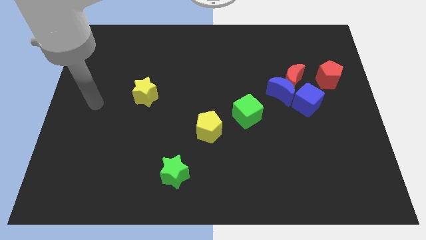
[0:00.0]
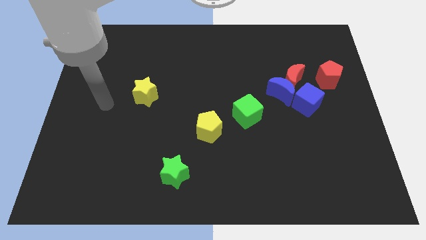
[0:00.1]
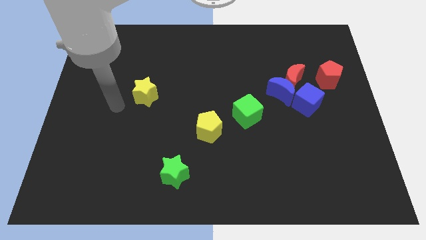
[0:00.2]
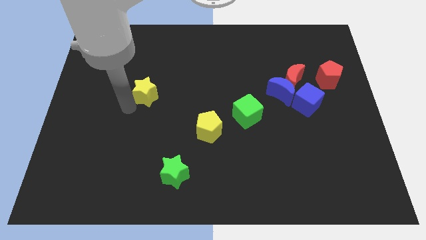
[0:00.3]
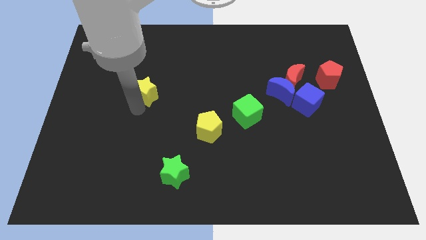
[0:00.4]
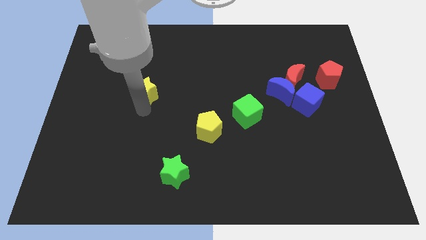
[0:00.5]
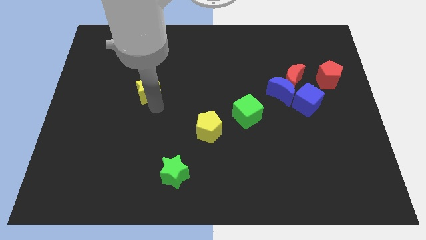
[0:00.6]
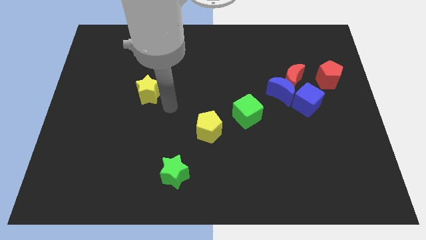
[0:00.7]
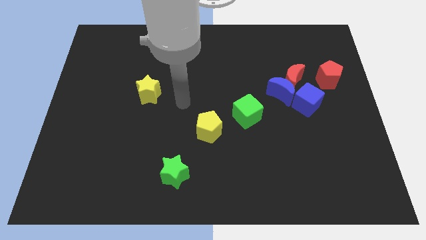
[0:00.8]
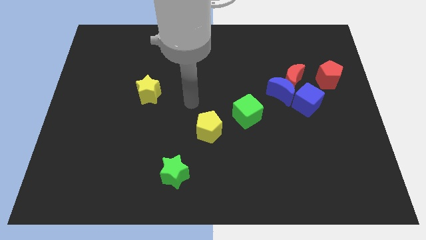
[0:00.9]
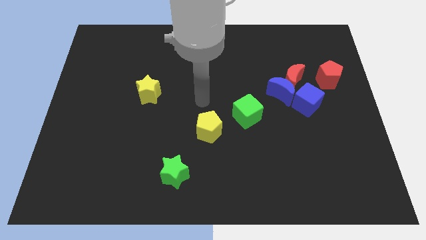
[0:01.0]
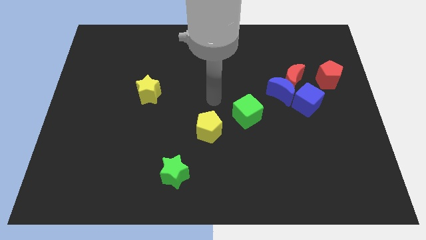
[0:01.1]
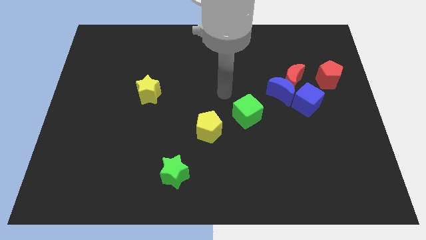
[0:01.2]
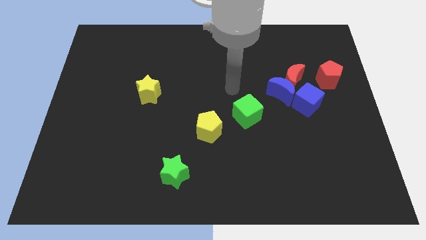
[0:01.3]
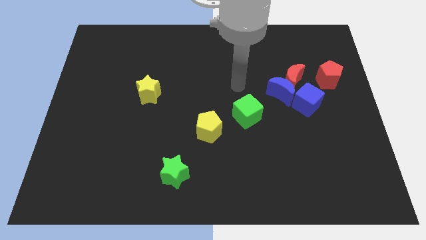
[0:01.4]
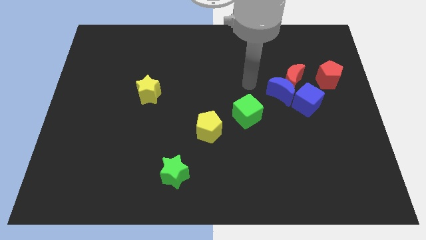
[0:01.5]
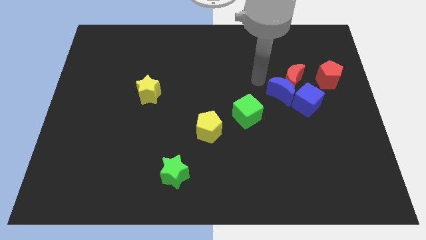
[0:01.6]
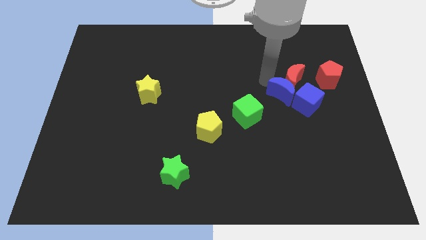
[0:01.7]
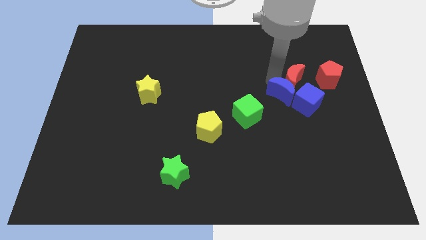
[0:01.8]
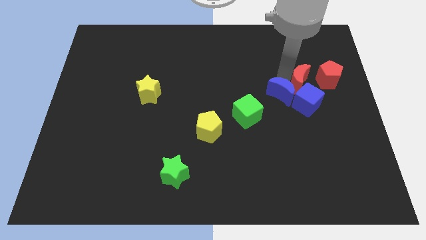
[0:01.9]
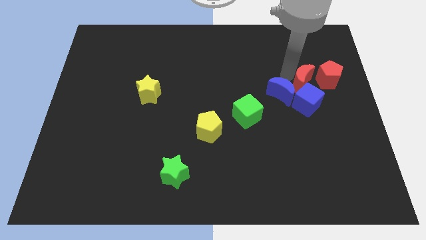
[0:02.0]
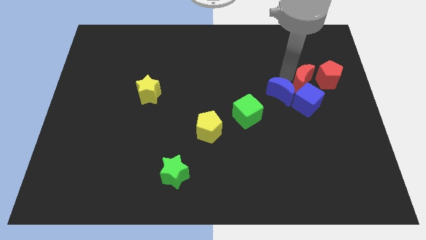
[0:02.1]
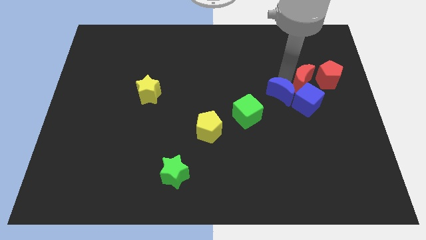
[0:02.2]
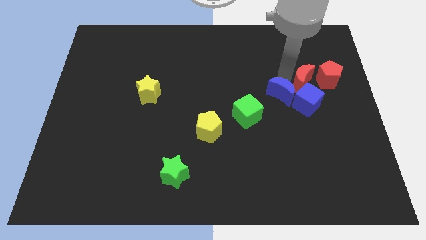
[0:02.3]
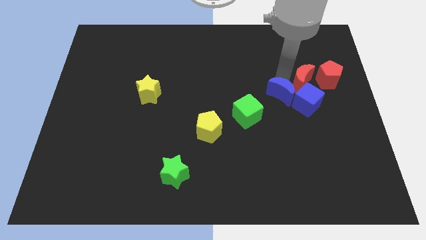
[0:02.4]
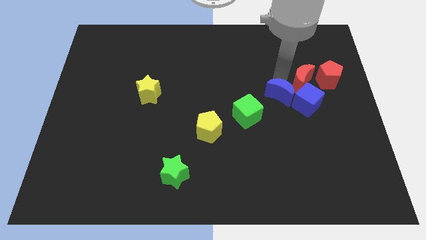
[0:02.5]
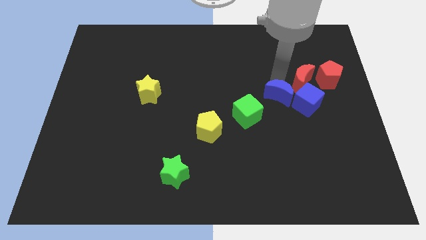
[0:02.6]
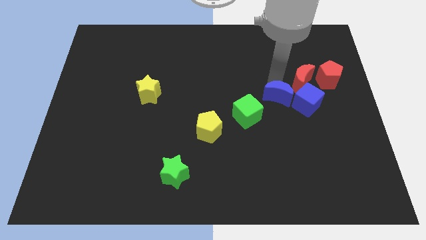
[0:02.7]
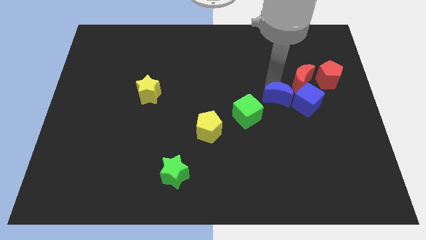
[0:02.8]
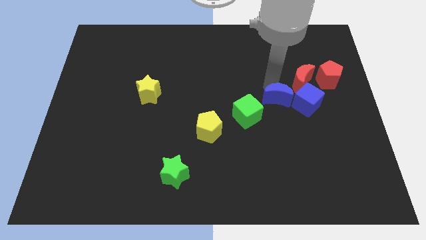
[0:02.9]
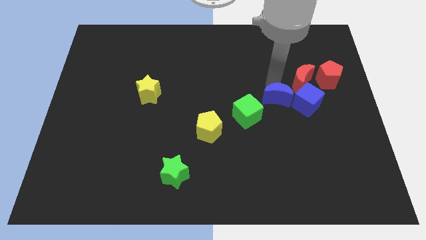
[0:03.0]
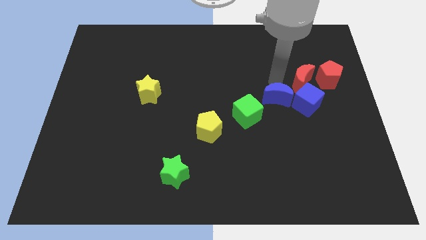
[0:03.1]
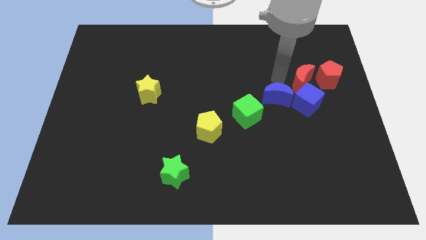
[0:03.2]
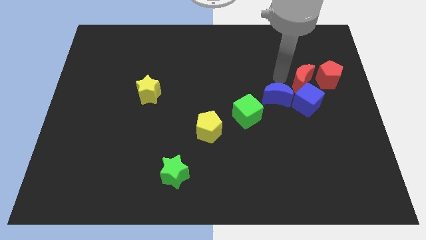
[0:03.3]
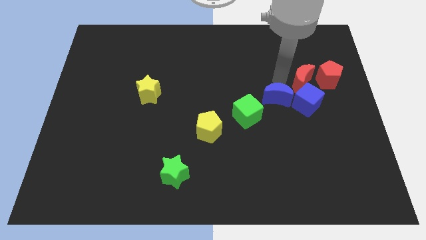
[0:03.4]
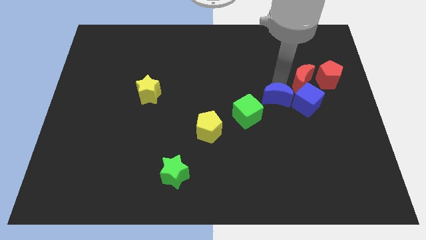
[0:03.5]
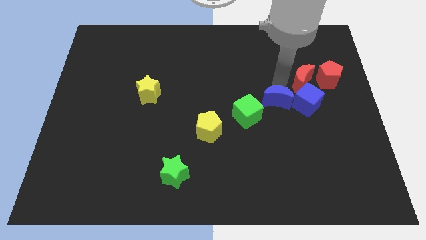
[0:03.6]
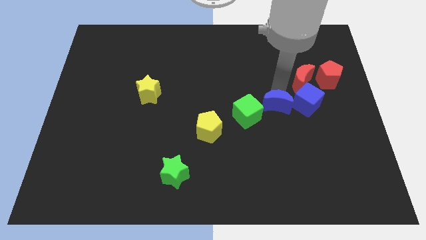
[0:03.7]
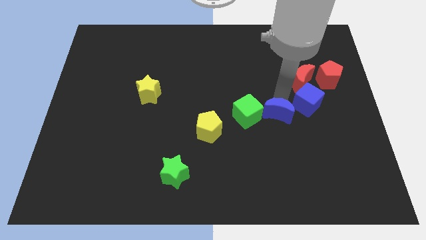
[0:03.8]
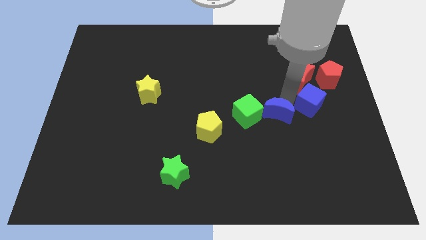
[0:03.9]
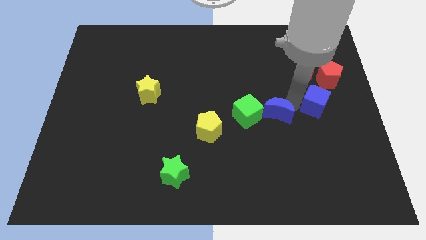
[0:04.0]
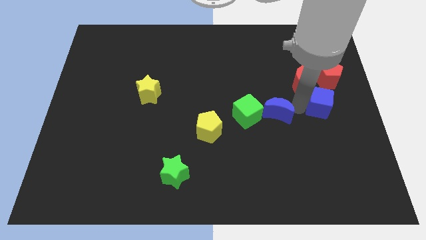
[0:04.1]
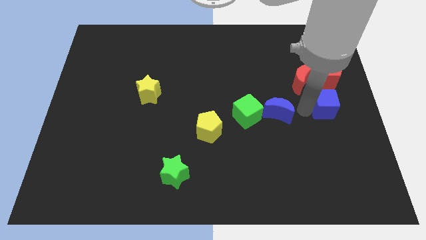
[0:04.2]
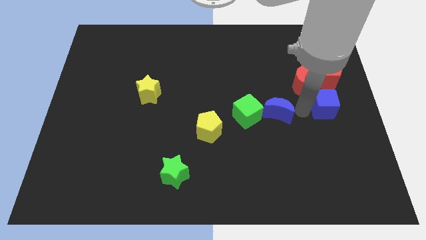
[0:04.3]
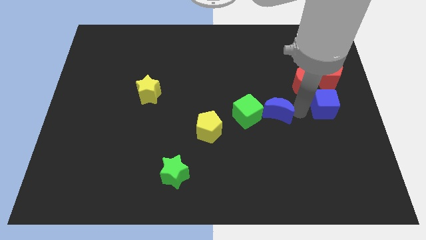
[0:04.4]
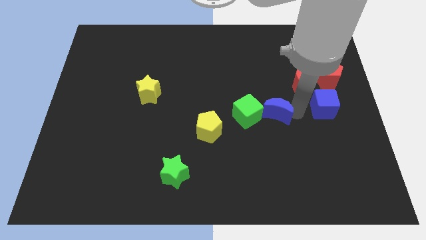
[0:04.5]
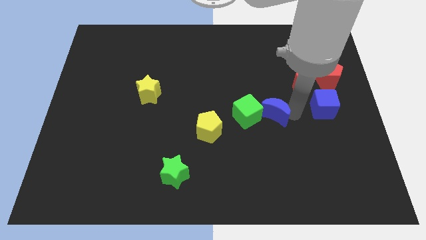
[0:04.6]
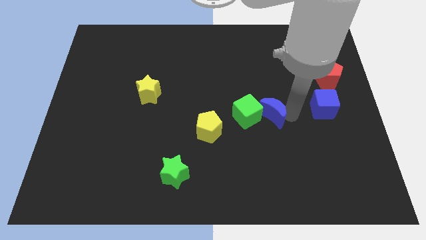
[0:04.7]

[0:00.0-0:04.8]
push the blue moon close to the green cube

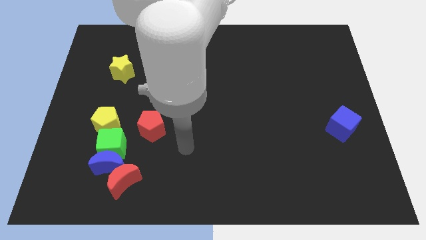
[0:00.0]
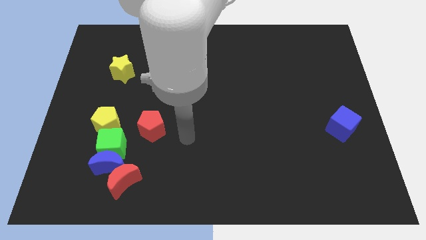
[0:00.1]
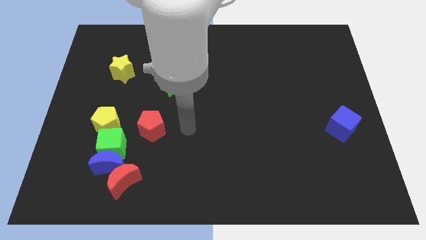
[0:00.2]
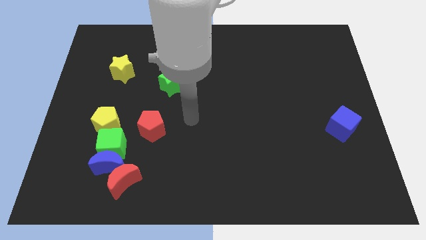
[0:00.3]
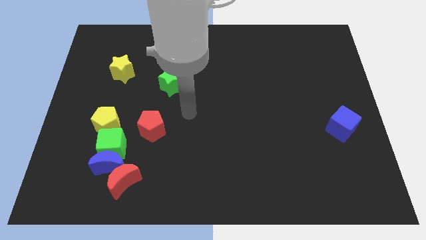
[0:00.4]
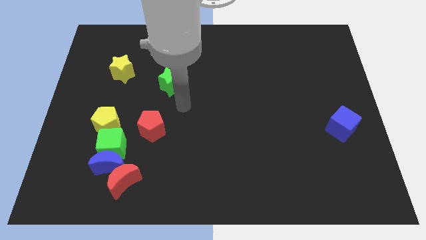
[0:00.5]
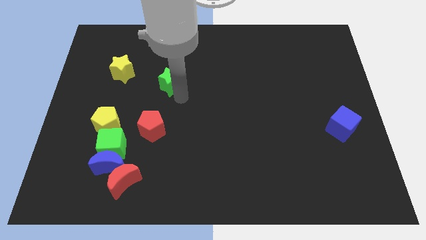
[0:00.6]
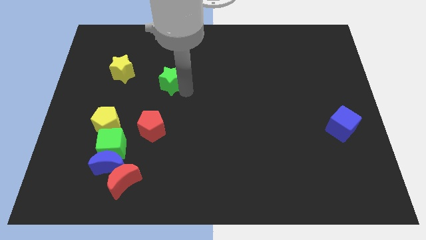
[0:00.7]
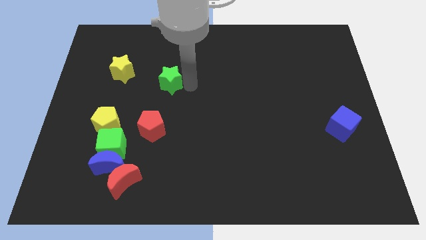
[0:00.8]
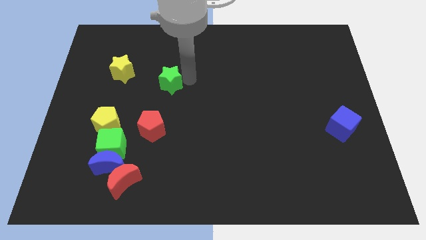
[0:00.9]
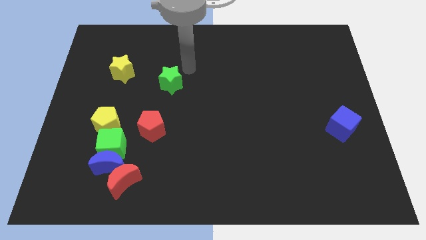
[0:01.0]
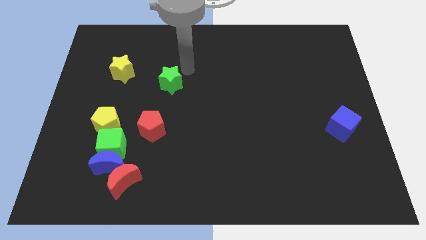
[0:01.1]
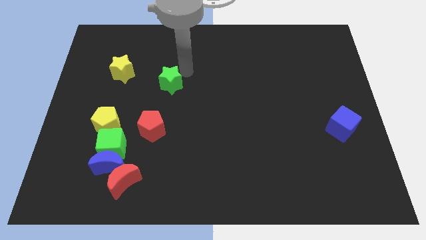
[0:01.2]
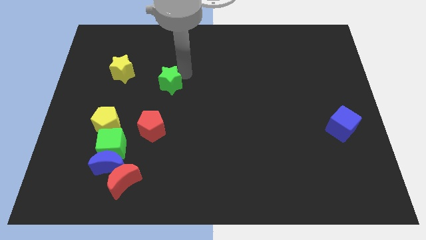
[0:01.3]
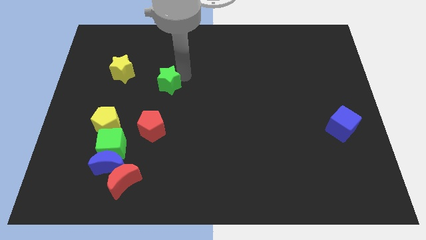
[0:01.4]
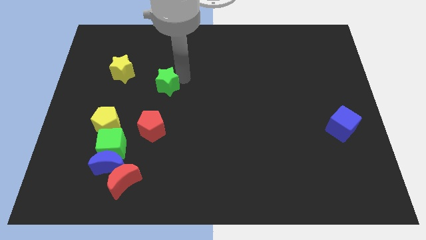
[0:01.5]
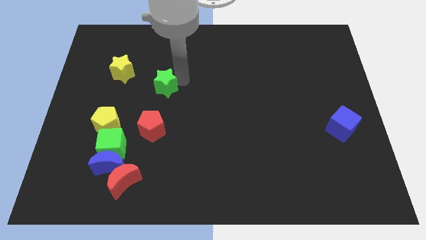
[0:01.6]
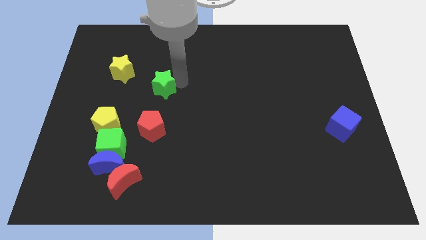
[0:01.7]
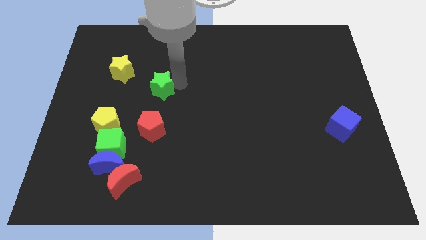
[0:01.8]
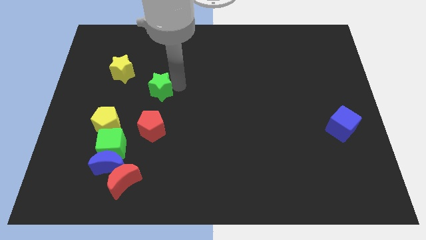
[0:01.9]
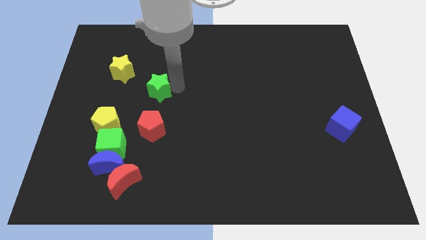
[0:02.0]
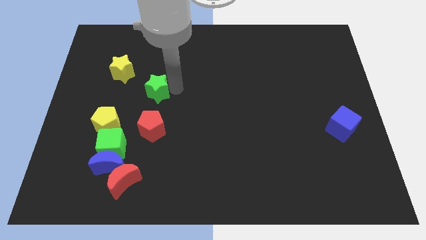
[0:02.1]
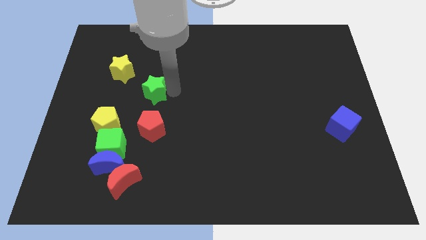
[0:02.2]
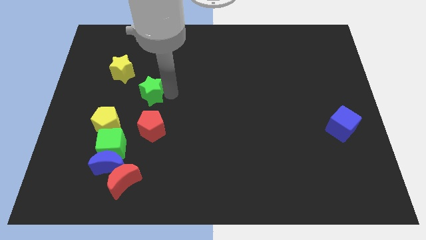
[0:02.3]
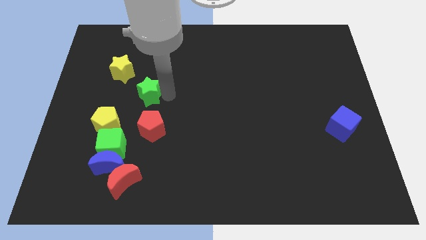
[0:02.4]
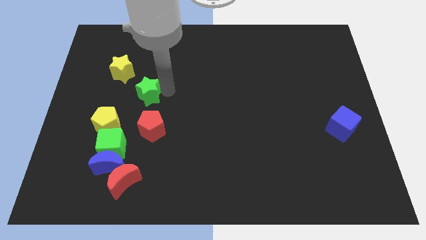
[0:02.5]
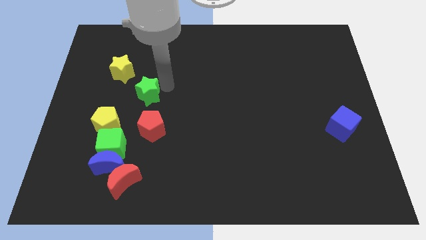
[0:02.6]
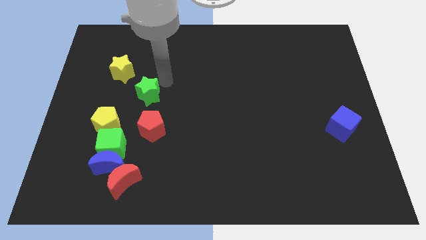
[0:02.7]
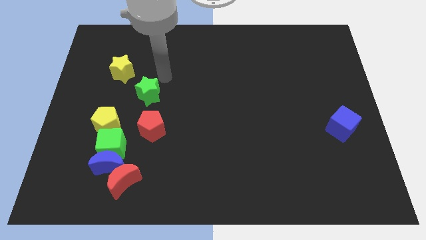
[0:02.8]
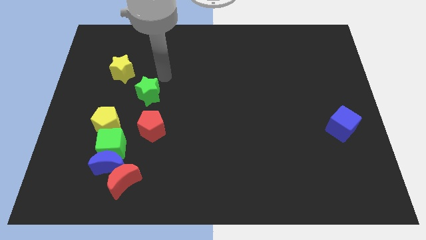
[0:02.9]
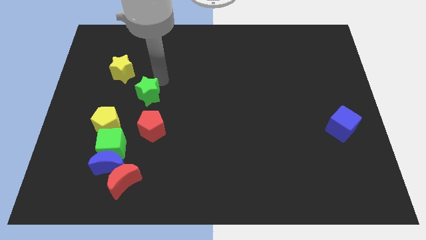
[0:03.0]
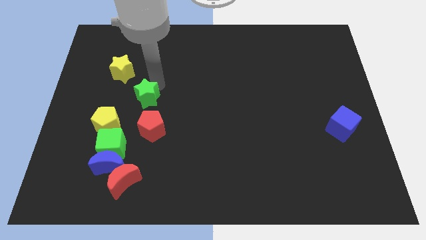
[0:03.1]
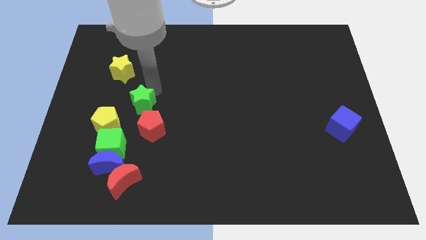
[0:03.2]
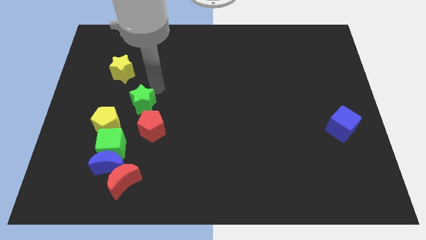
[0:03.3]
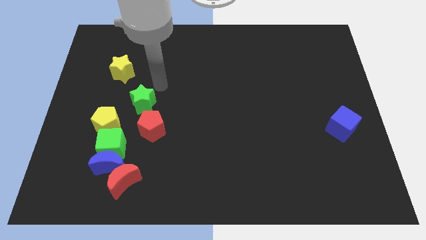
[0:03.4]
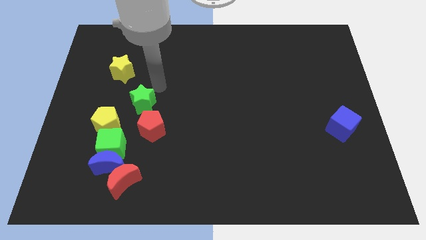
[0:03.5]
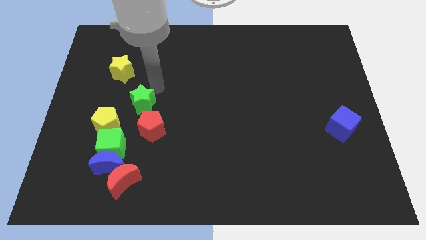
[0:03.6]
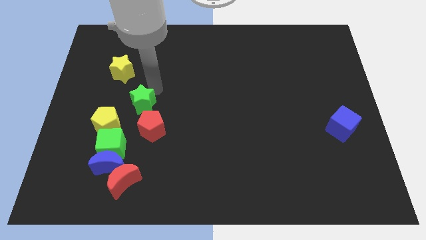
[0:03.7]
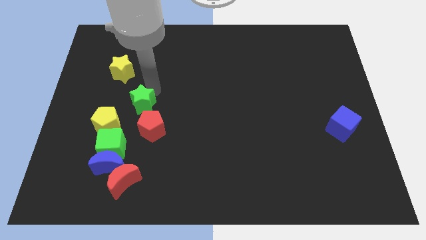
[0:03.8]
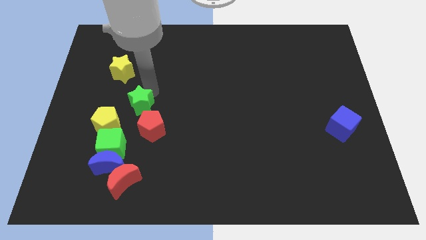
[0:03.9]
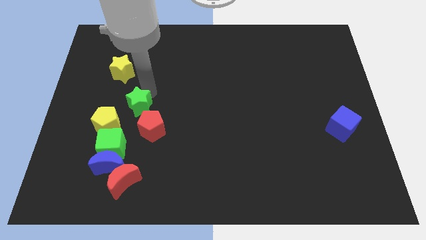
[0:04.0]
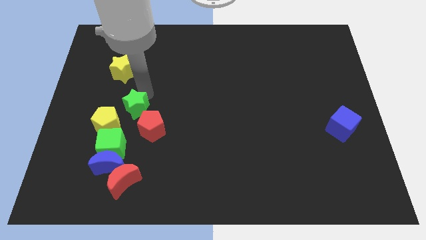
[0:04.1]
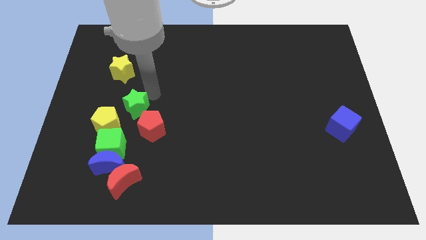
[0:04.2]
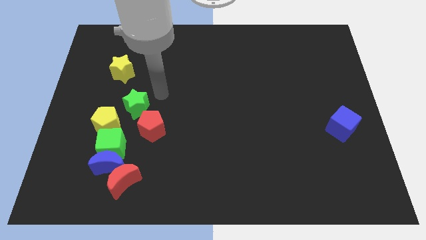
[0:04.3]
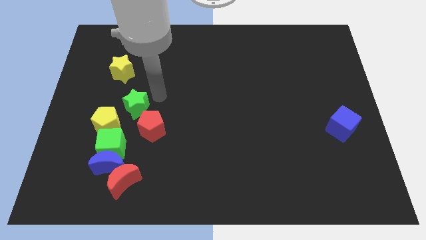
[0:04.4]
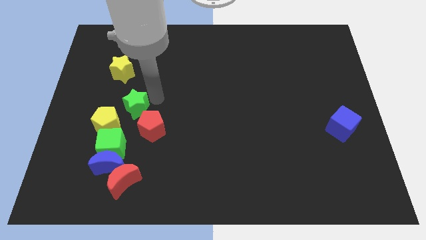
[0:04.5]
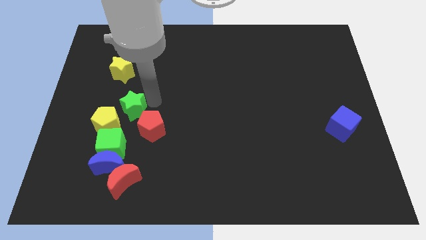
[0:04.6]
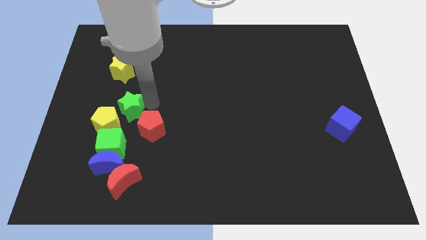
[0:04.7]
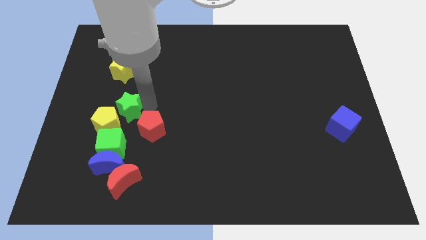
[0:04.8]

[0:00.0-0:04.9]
slide the green star close to the yellow pentagon
